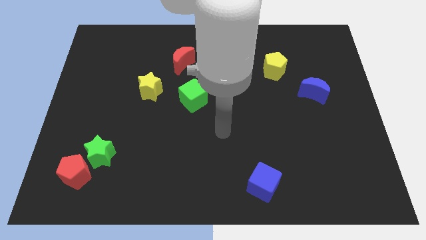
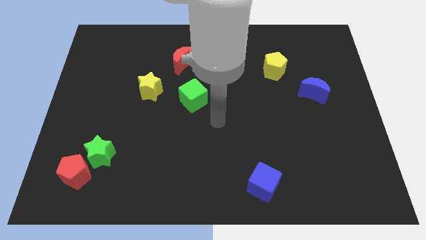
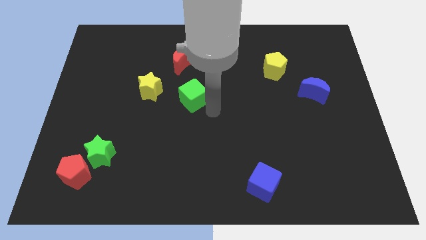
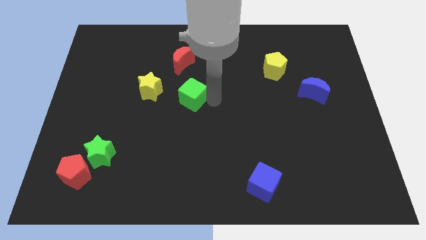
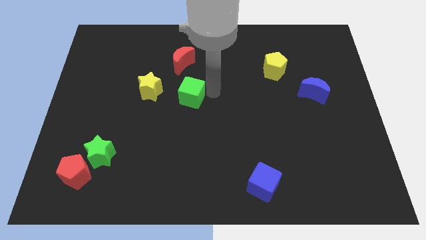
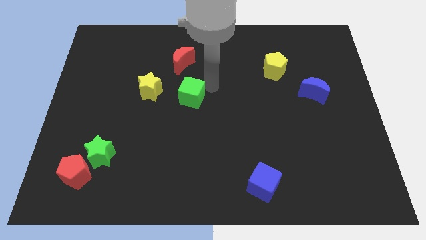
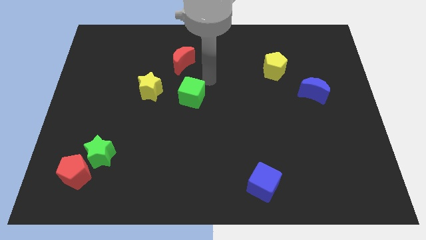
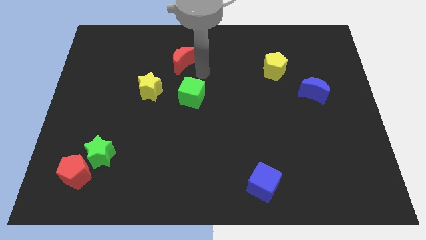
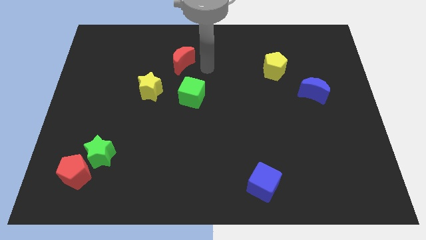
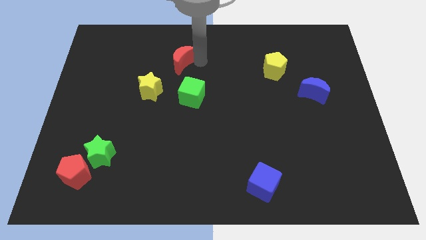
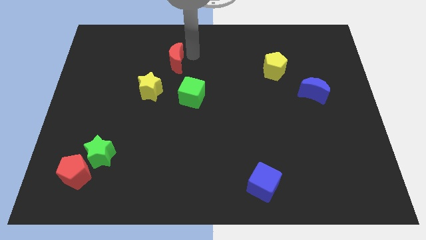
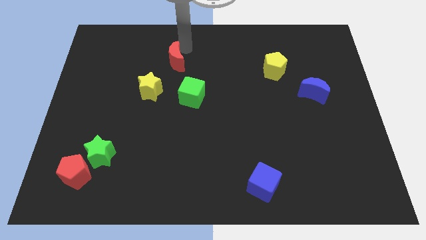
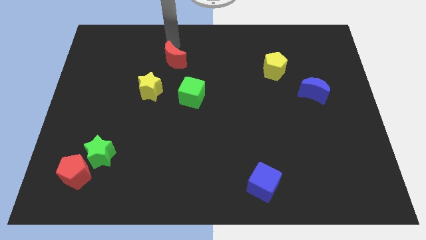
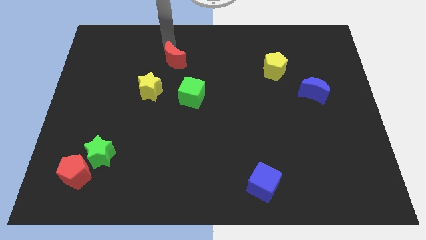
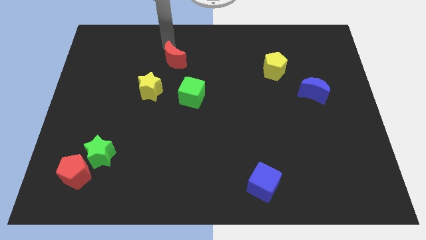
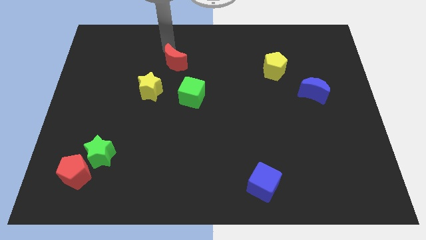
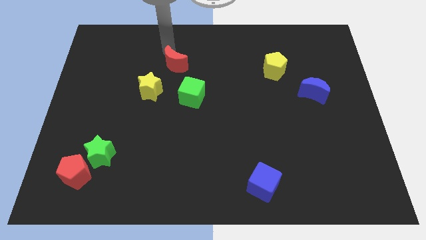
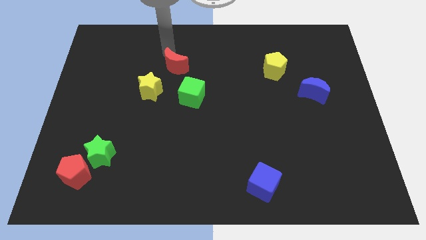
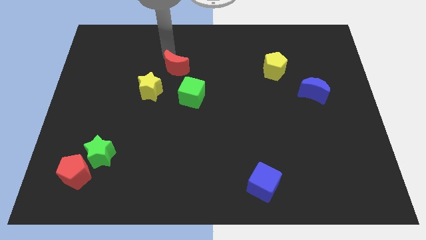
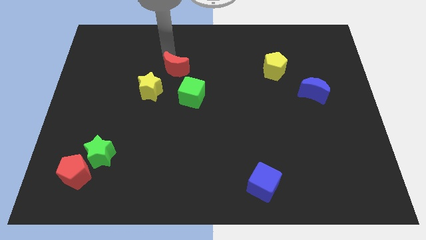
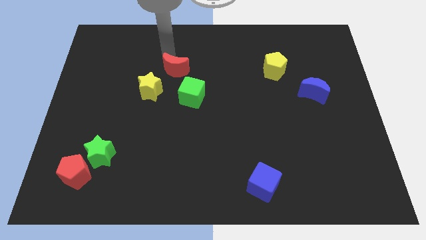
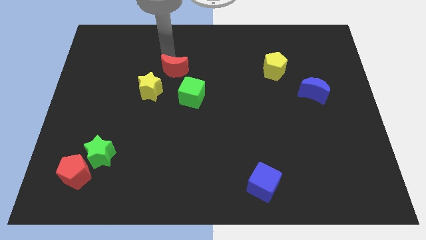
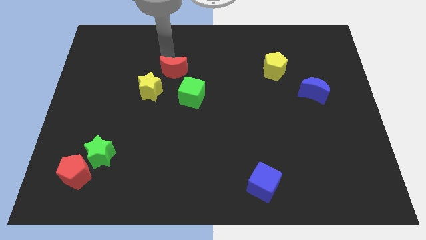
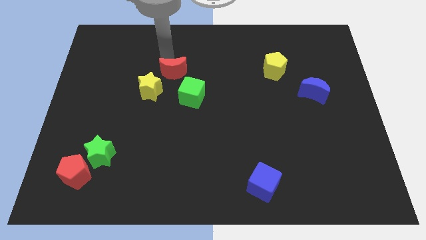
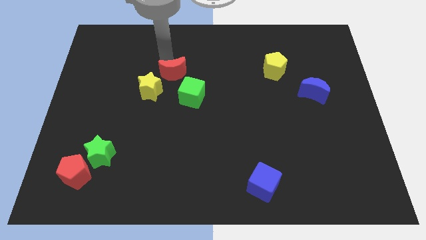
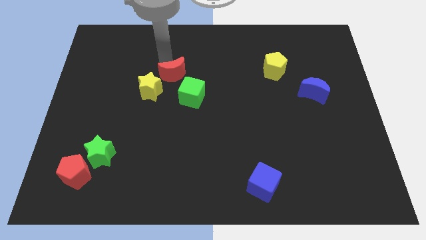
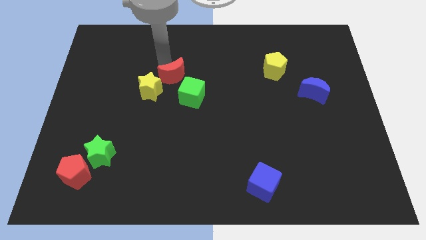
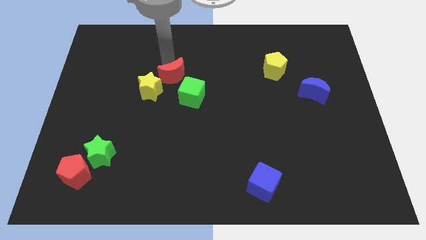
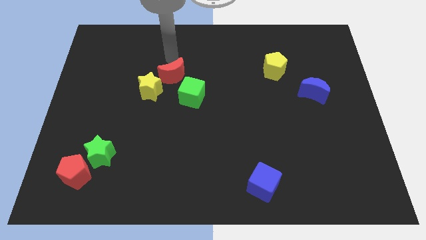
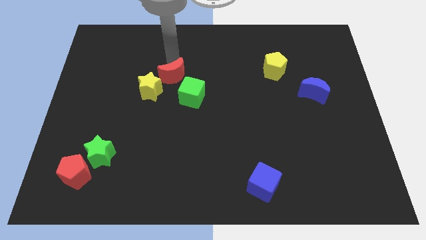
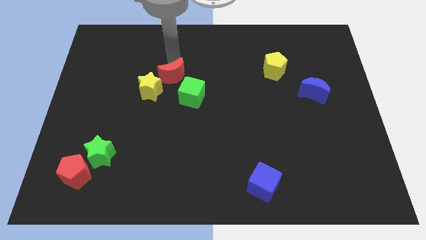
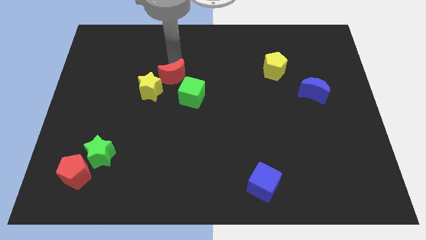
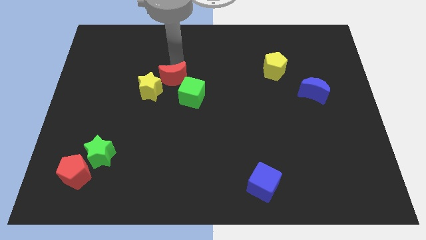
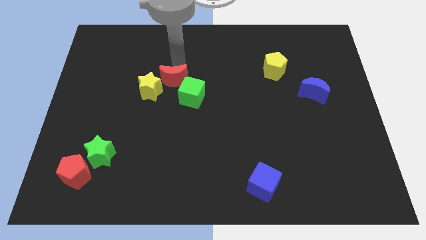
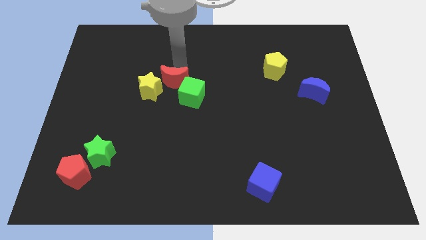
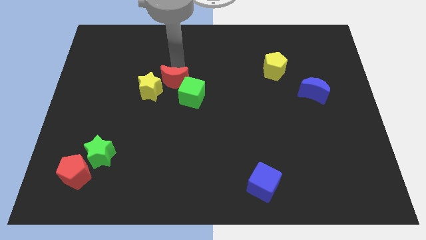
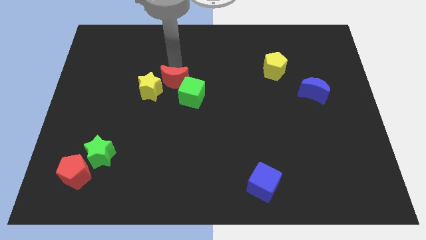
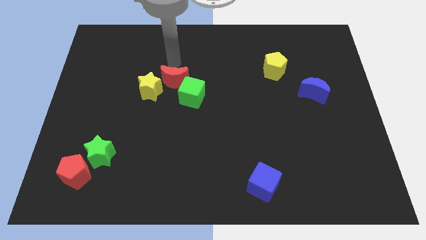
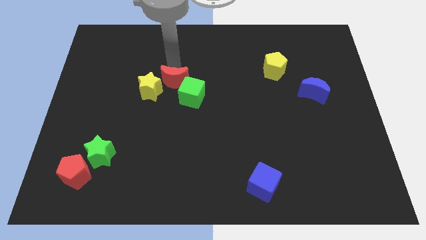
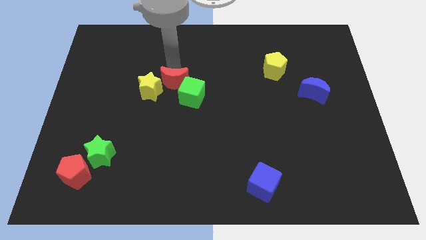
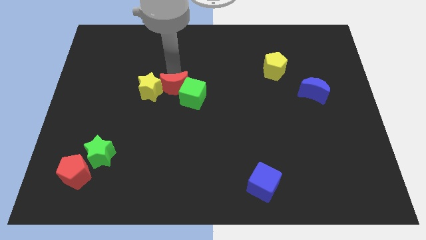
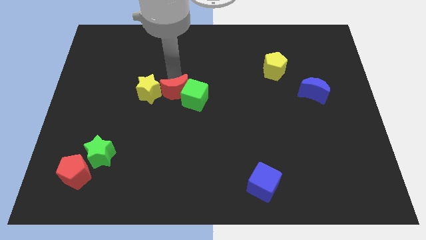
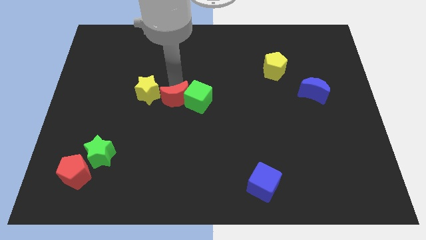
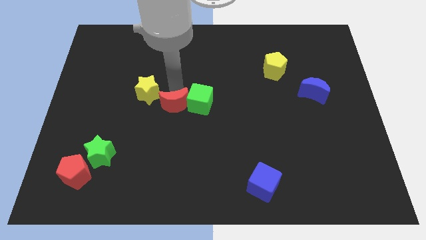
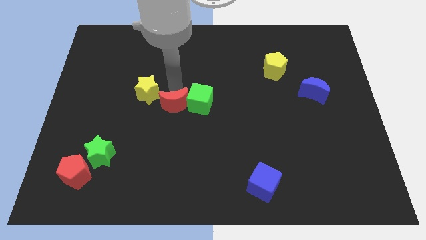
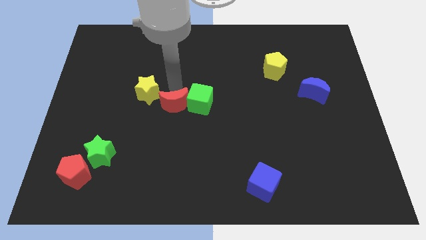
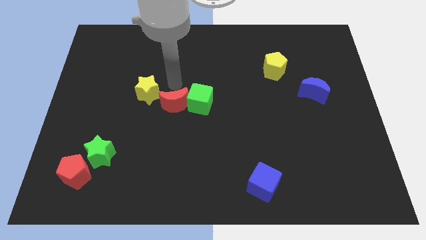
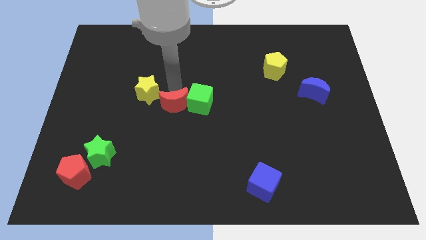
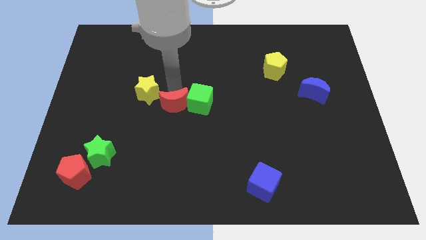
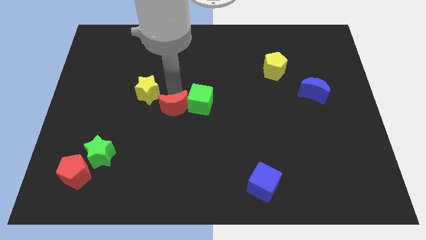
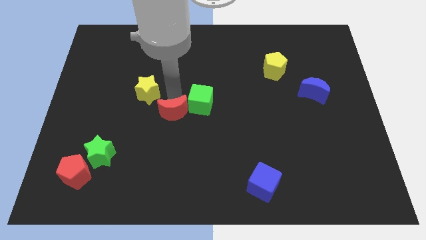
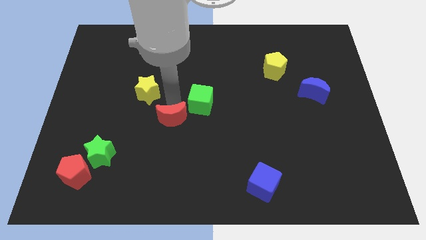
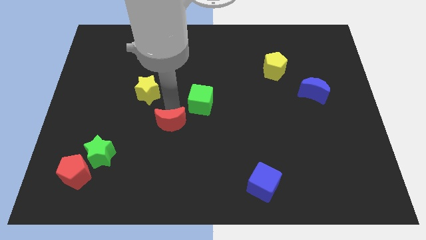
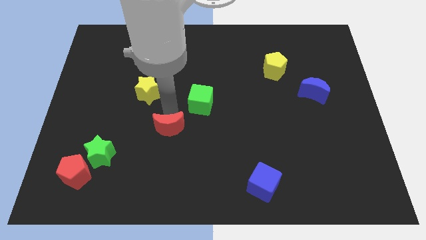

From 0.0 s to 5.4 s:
push the red moon down

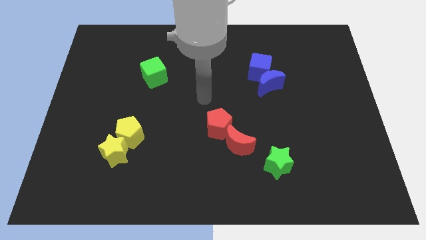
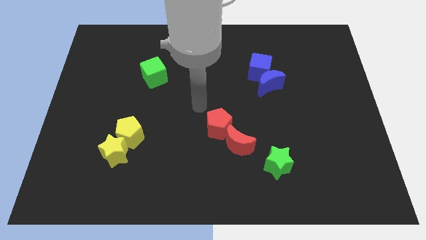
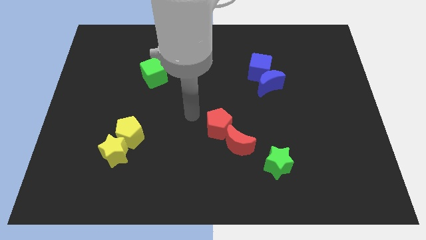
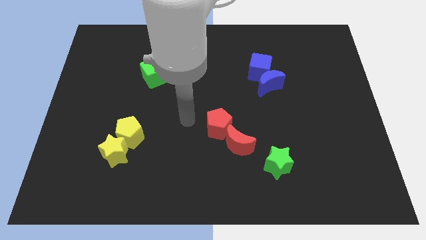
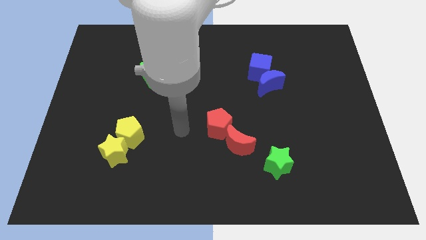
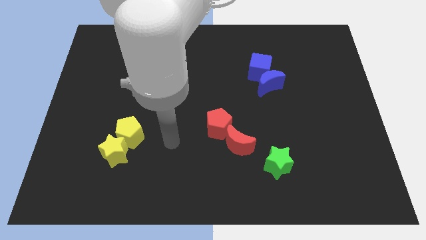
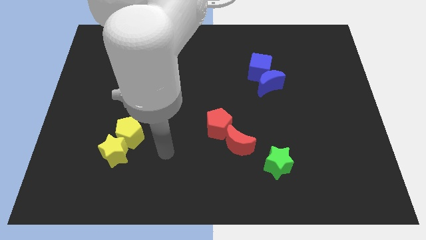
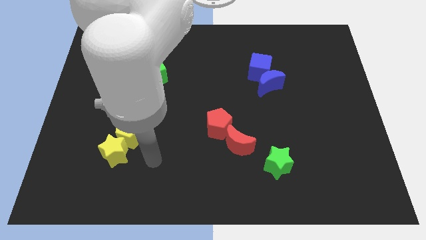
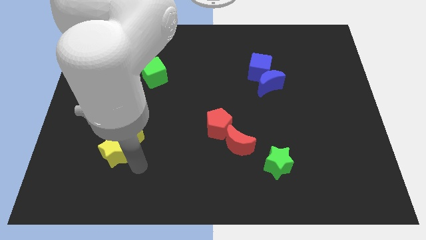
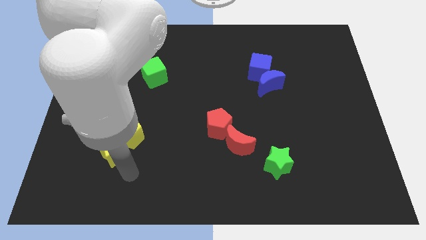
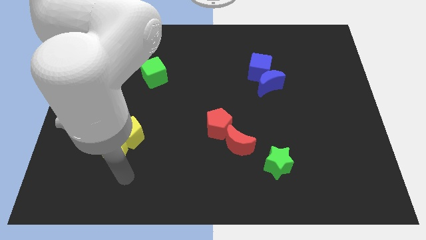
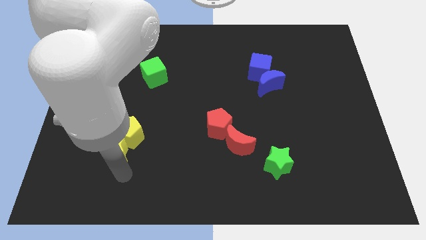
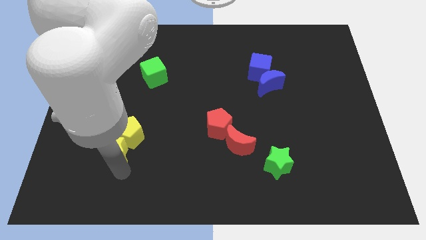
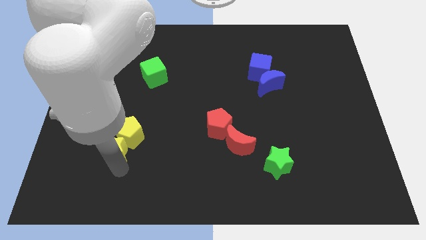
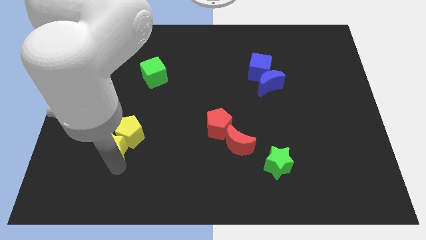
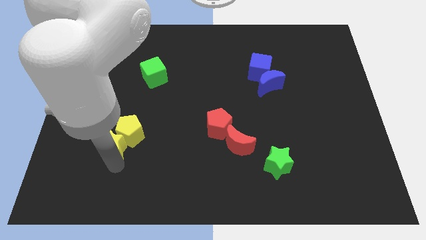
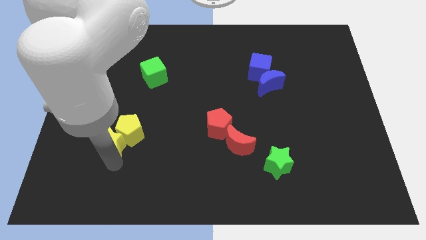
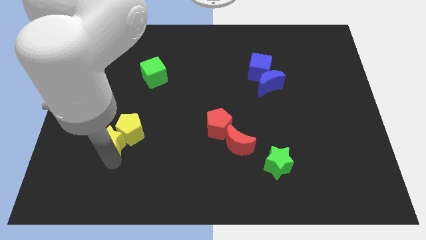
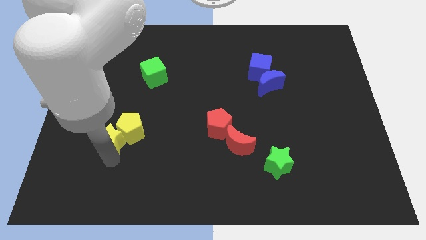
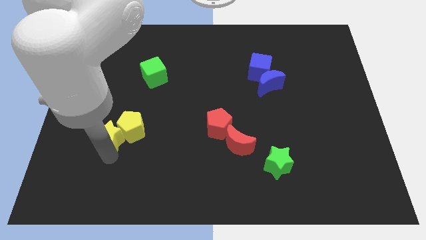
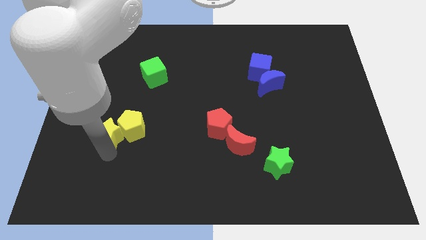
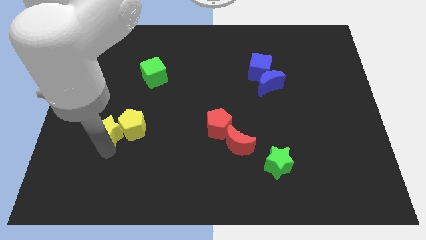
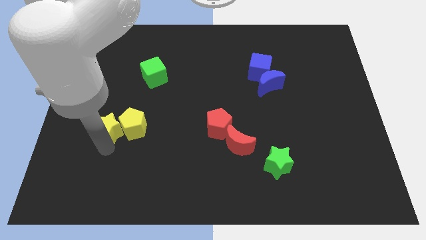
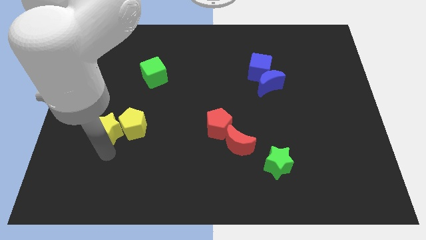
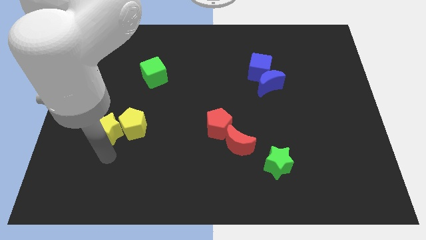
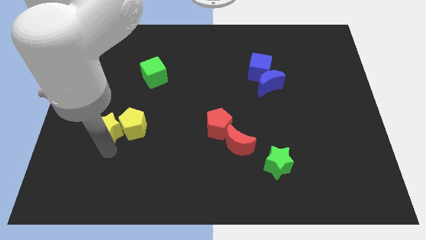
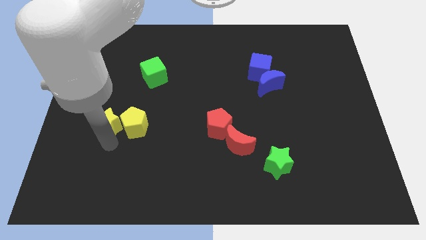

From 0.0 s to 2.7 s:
push the yellow star a bit upwards
